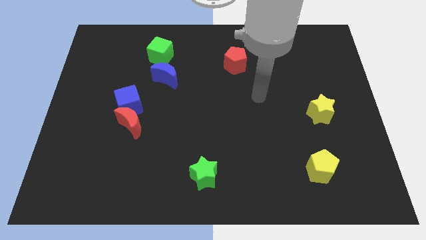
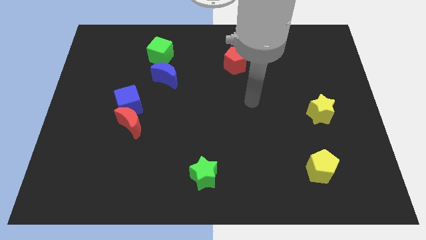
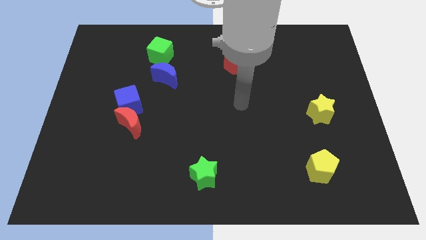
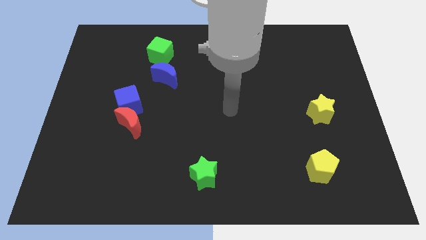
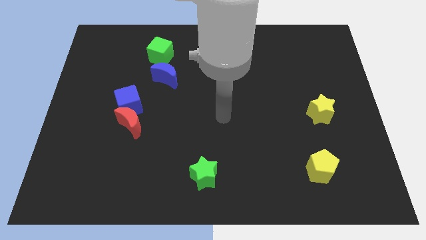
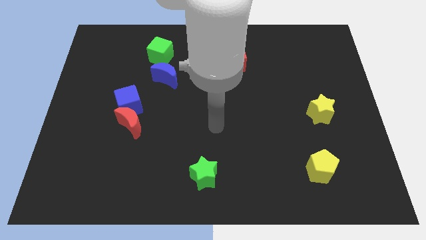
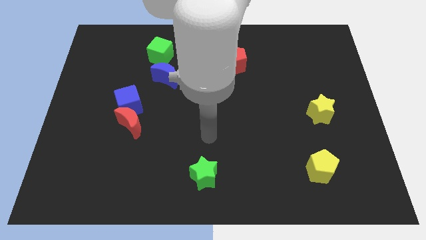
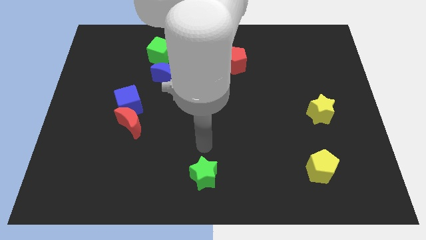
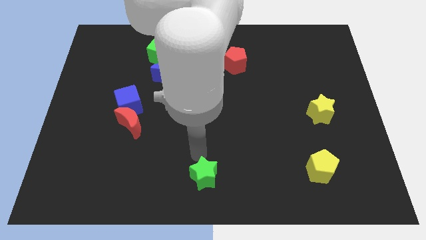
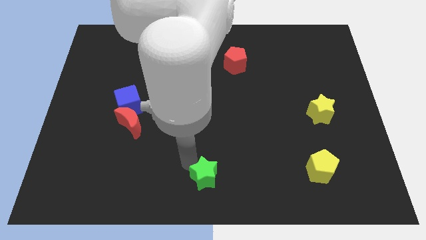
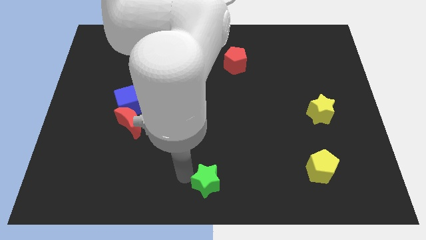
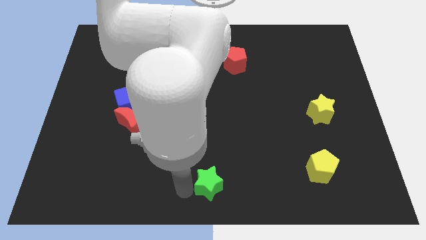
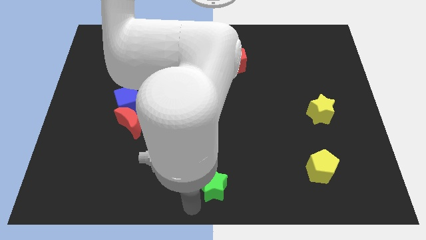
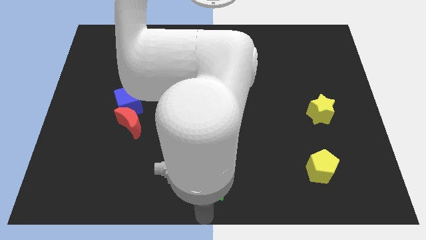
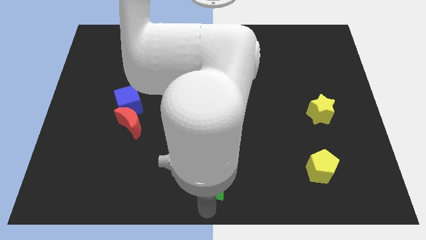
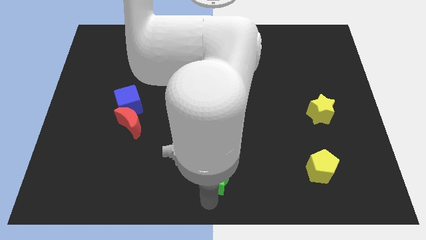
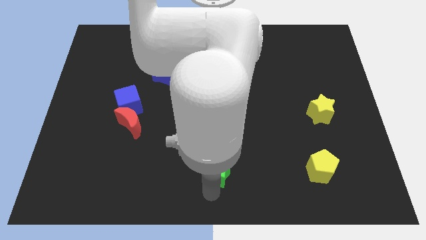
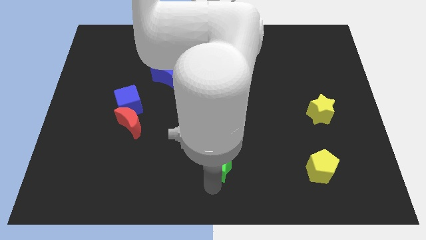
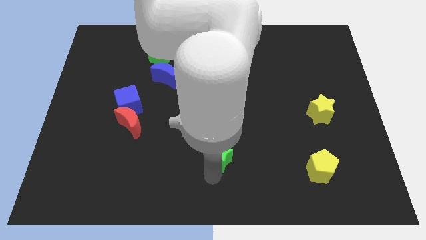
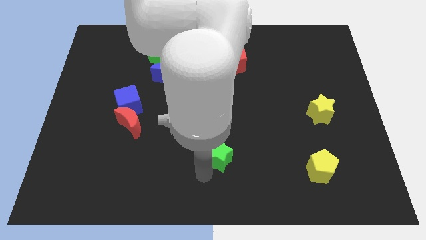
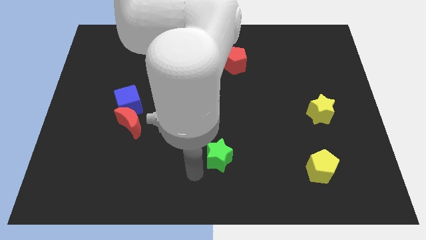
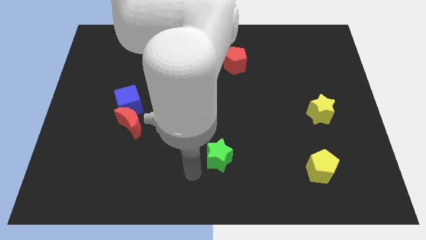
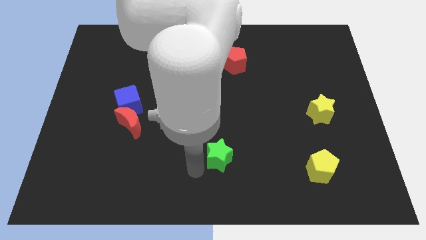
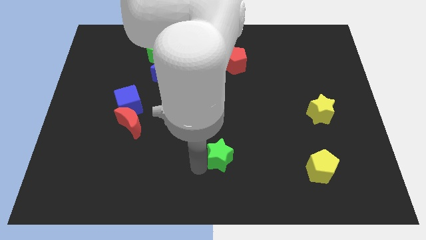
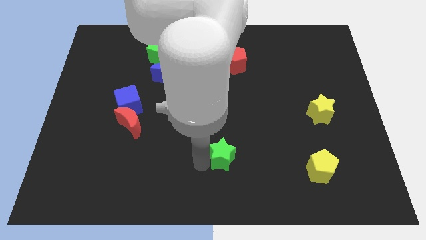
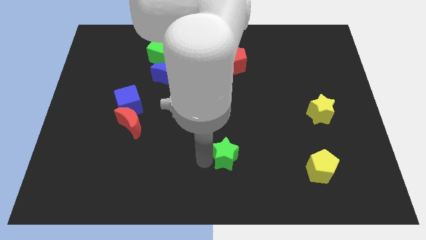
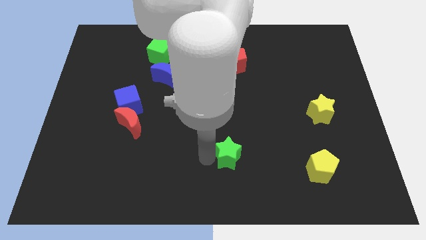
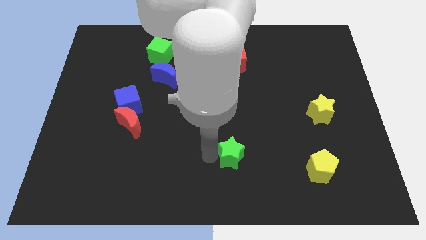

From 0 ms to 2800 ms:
move the green star upwards and then right a little bit

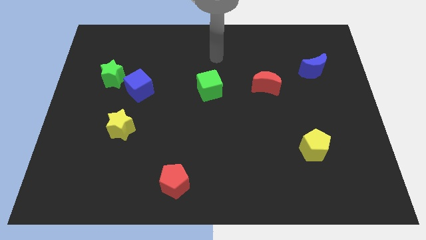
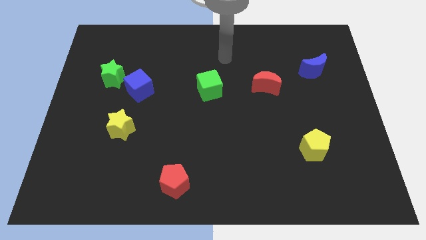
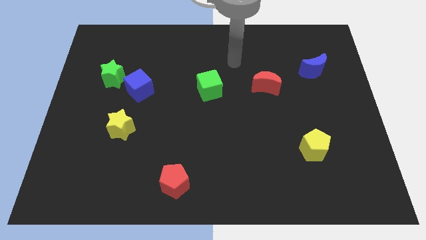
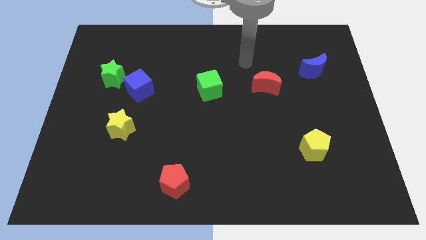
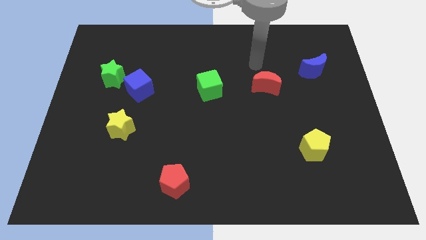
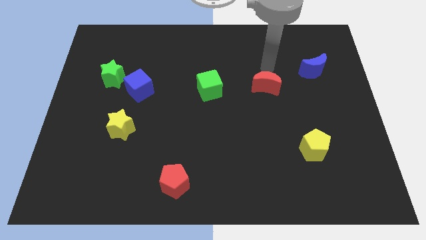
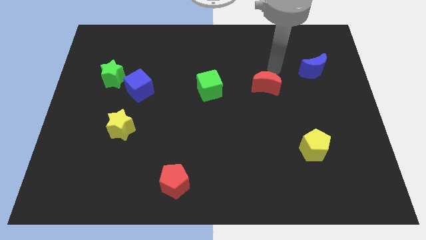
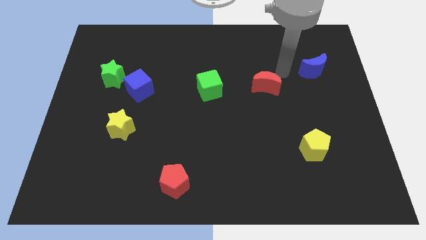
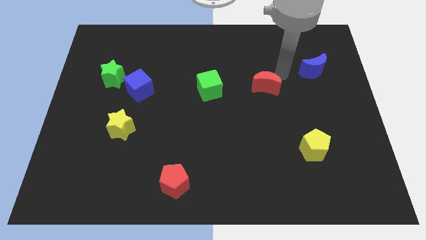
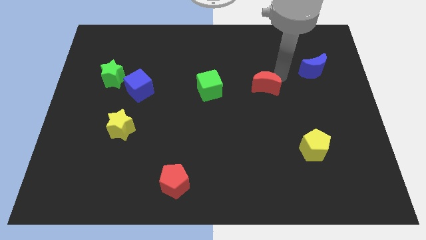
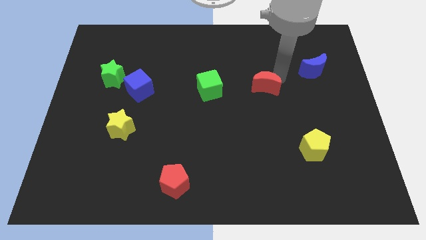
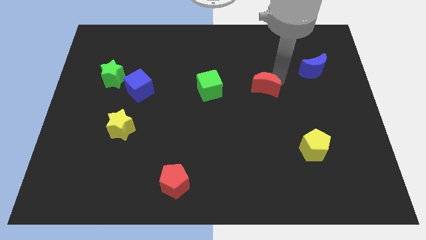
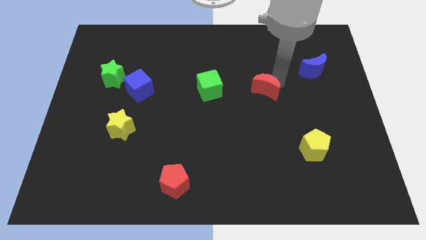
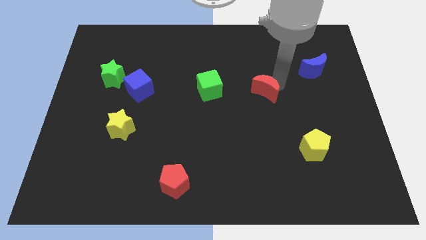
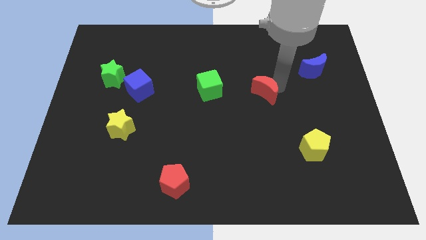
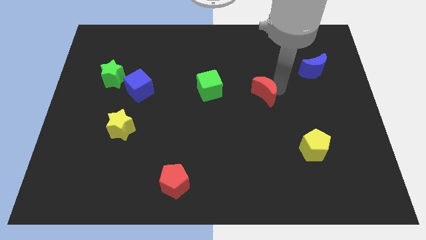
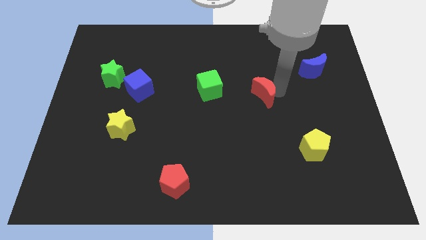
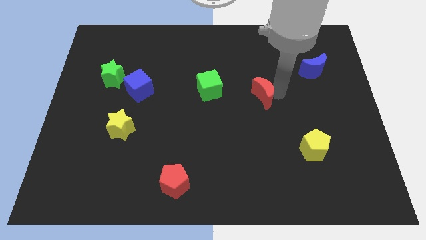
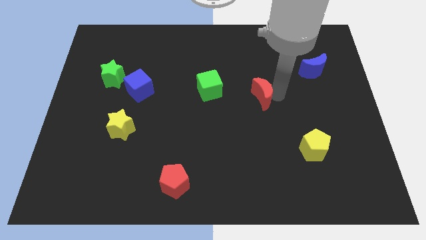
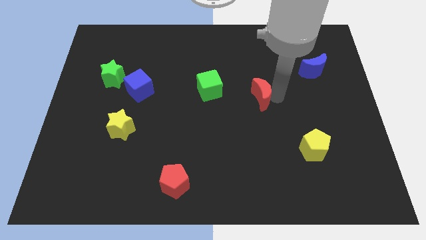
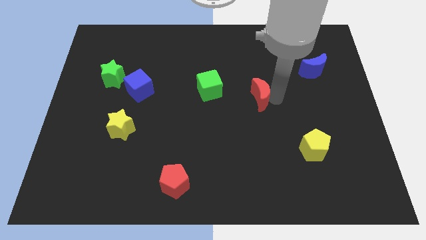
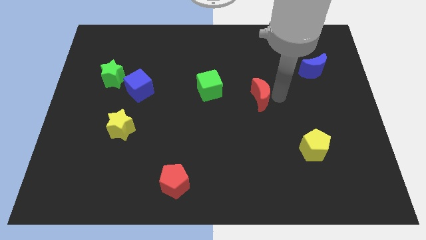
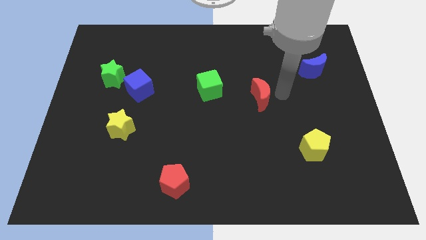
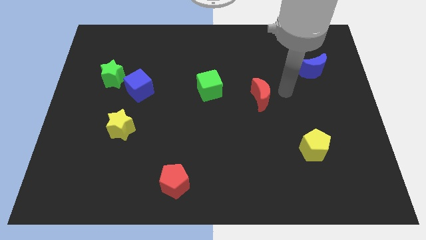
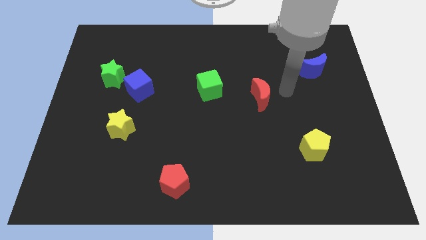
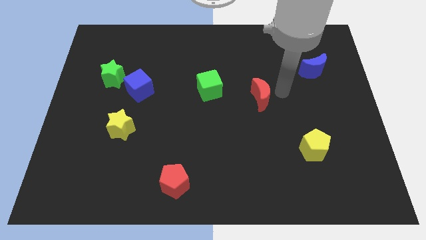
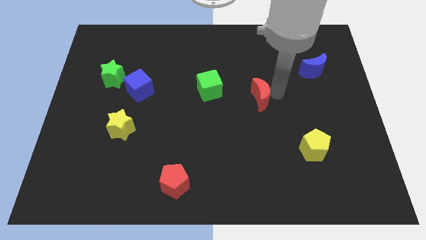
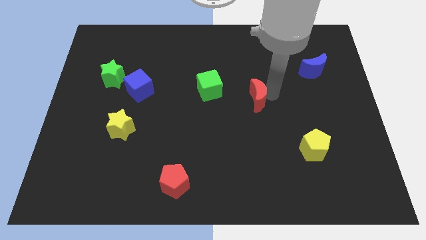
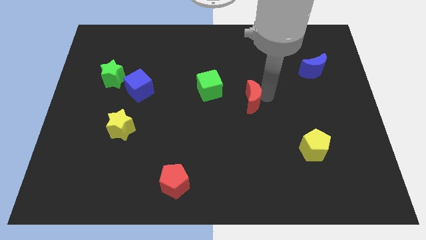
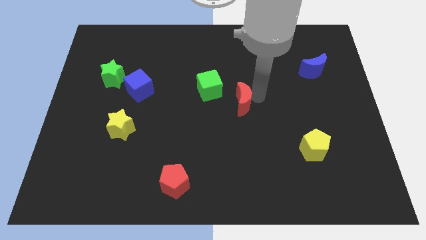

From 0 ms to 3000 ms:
slightly push the red moon diagonally downwards and left

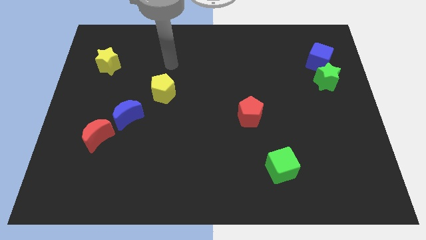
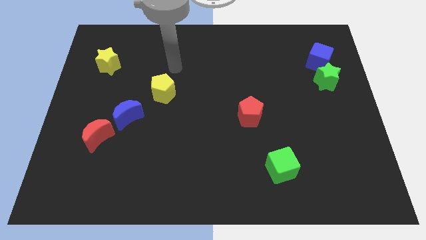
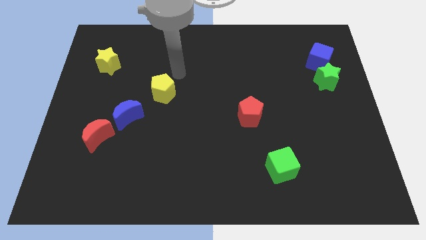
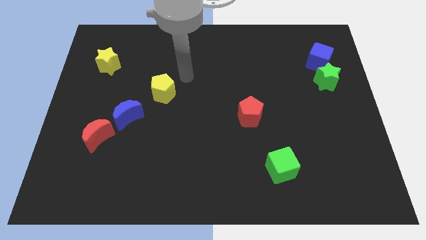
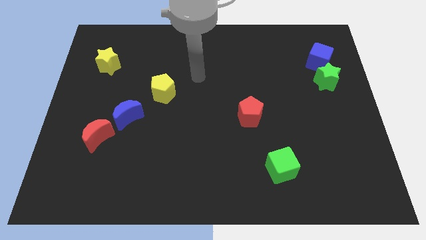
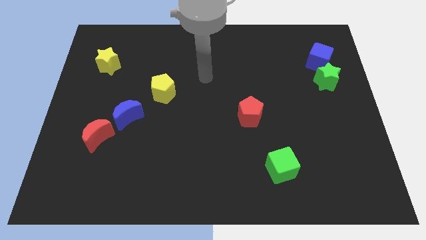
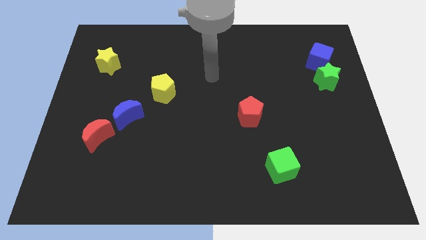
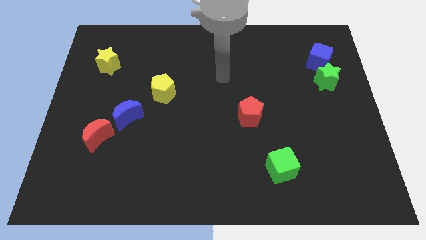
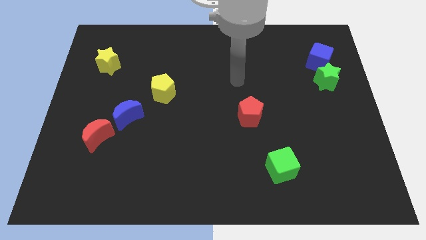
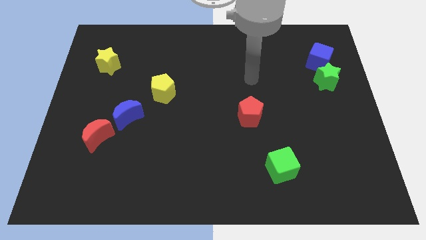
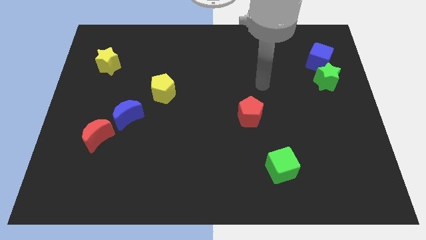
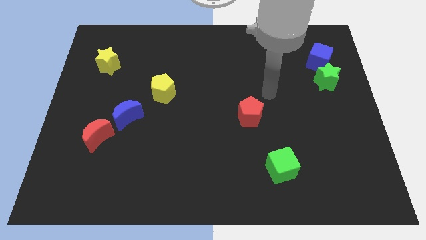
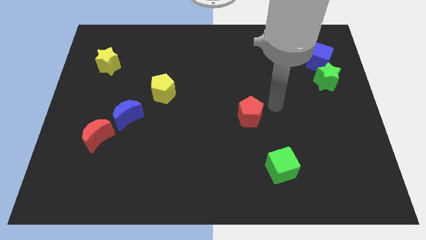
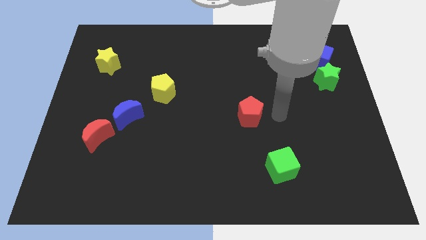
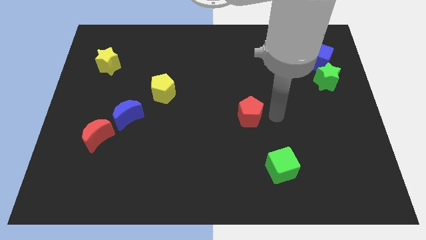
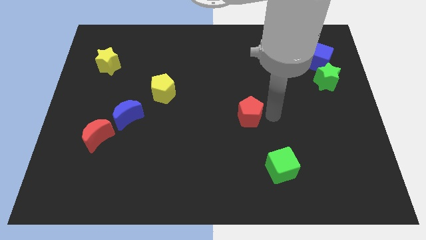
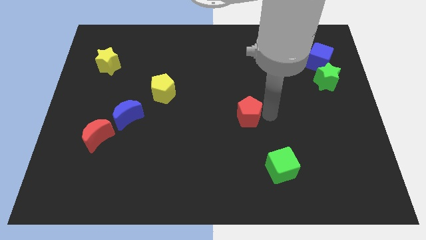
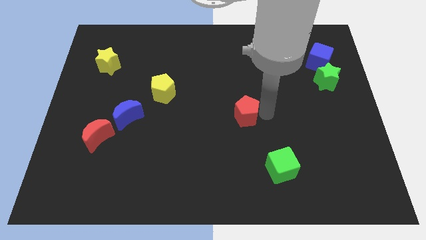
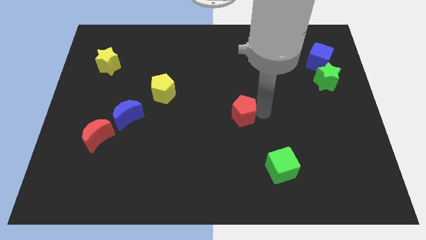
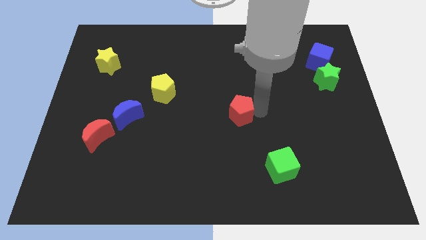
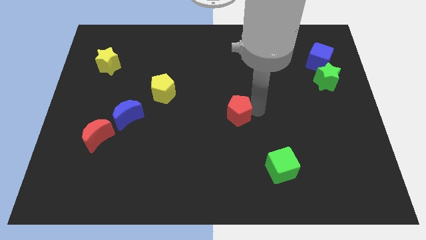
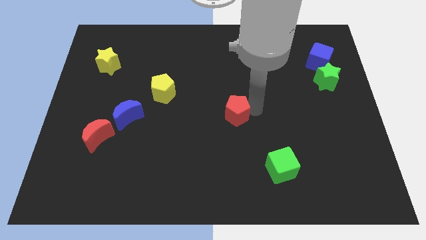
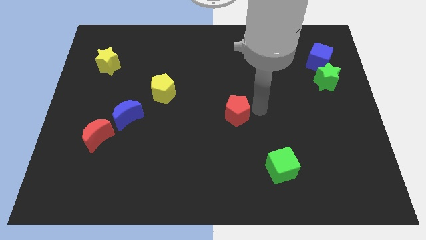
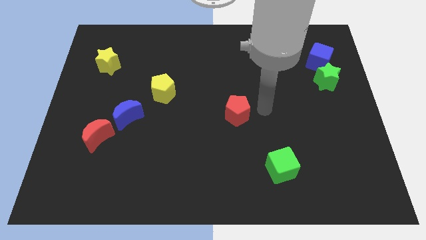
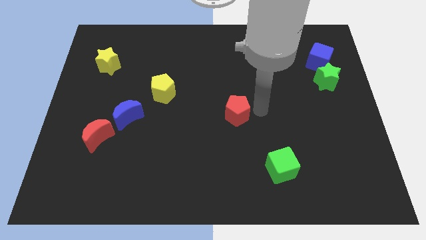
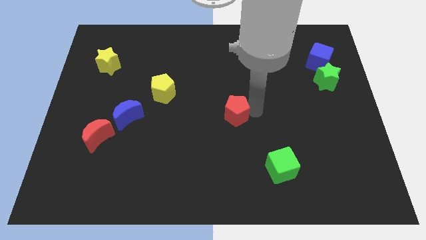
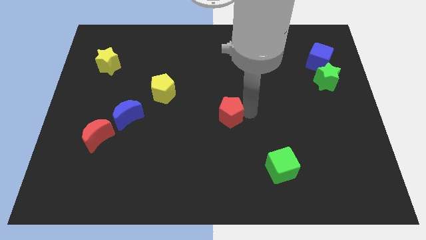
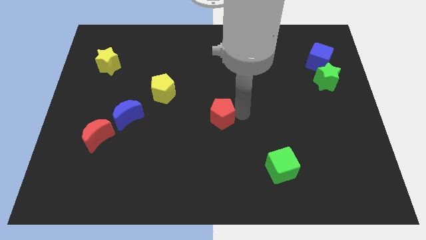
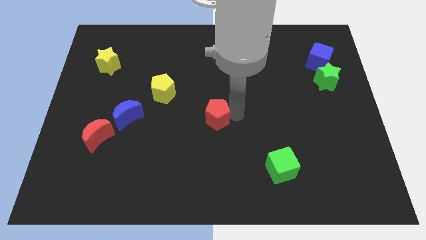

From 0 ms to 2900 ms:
push the red pentagon a bit to the left
